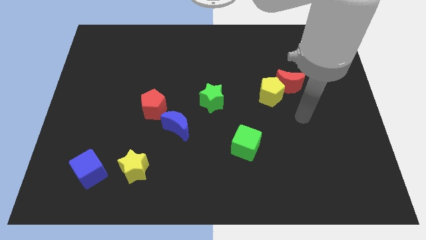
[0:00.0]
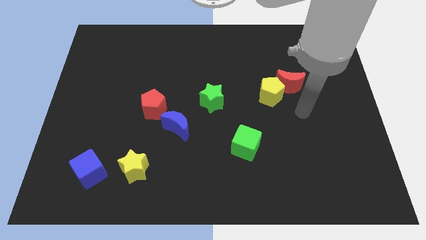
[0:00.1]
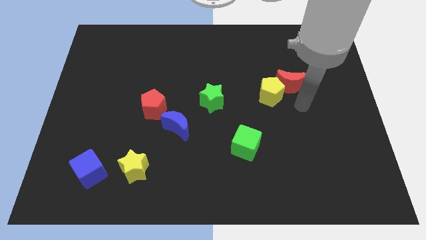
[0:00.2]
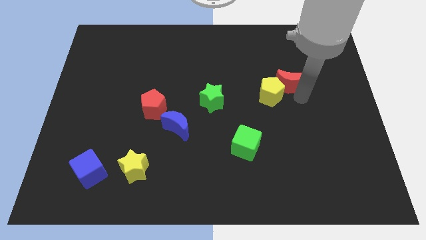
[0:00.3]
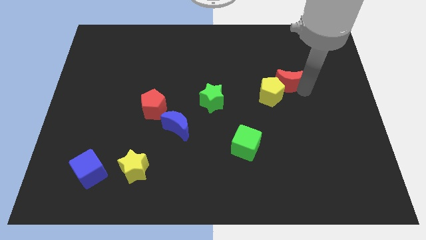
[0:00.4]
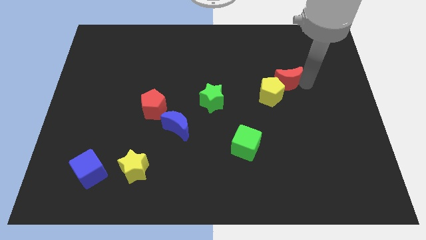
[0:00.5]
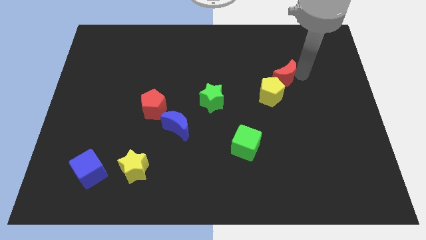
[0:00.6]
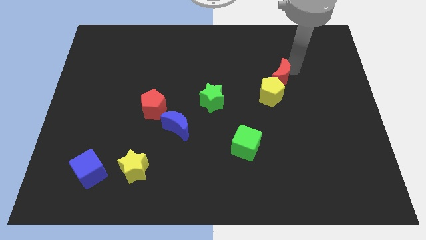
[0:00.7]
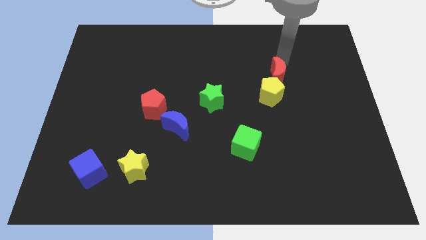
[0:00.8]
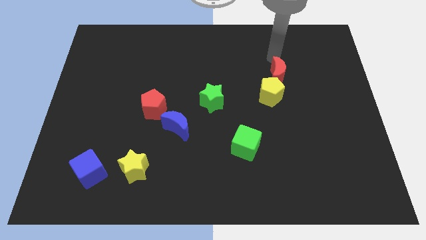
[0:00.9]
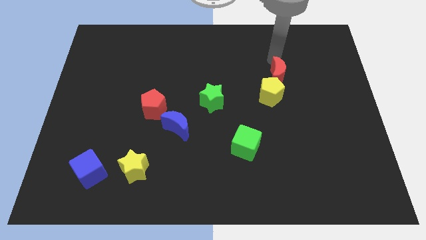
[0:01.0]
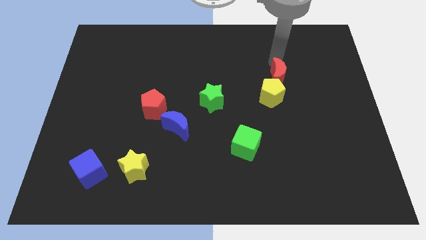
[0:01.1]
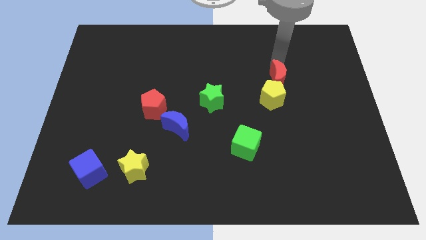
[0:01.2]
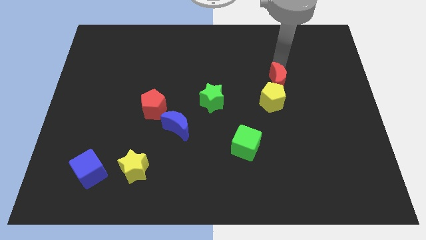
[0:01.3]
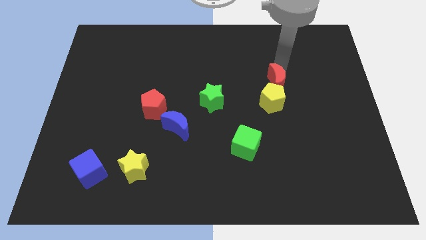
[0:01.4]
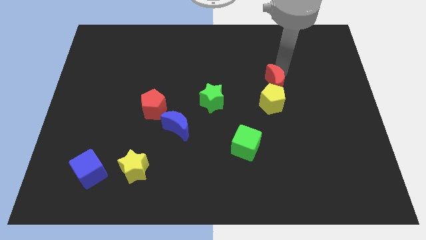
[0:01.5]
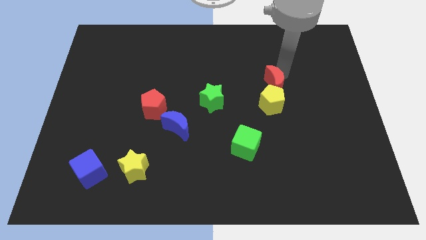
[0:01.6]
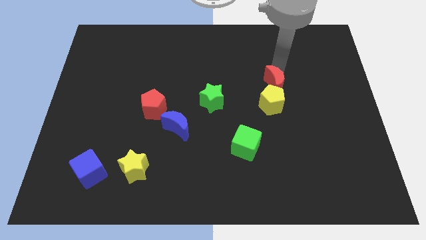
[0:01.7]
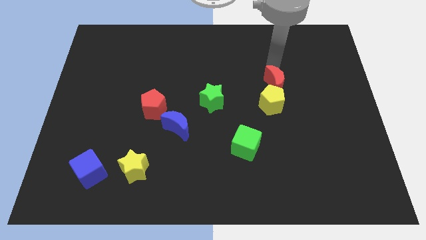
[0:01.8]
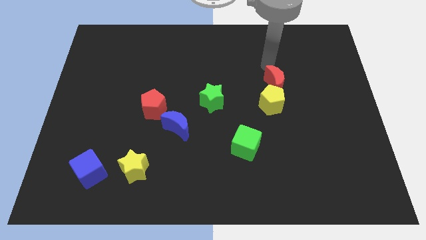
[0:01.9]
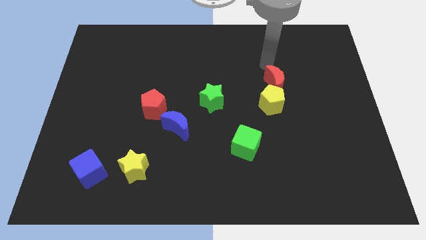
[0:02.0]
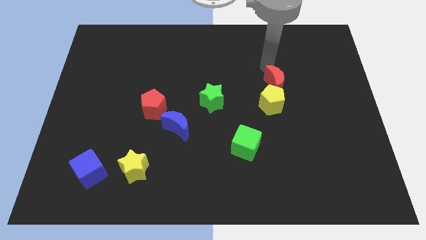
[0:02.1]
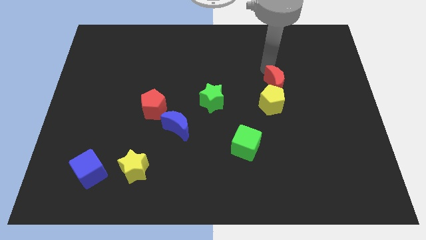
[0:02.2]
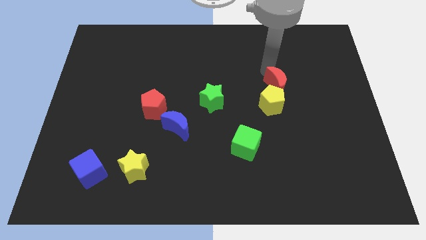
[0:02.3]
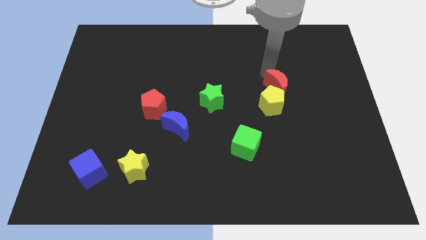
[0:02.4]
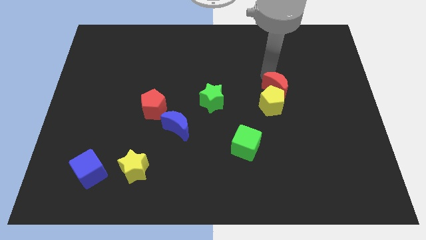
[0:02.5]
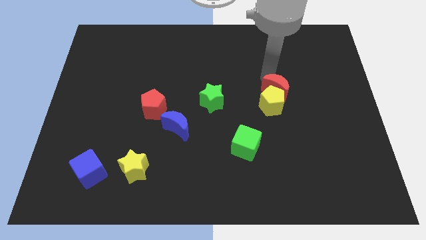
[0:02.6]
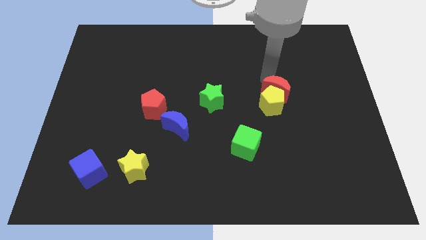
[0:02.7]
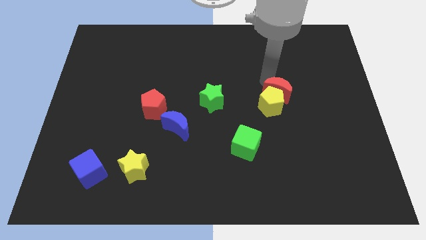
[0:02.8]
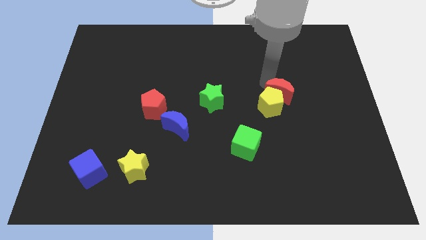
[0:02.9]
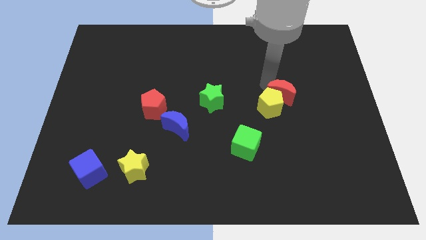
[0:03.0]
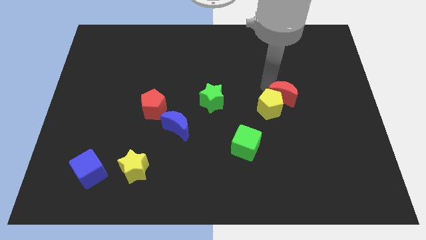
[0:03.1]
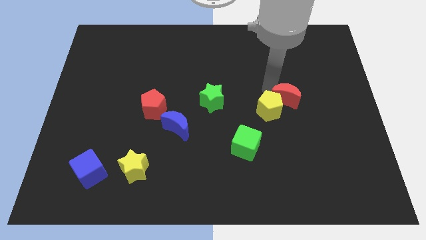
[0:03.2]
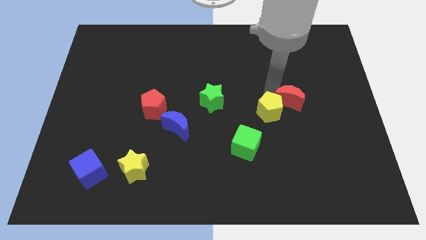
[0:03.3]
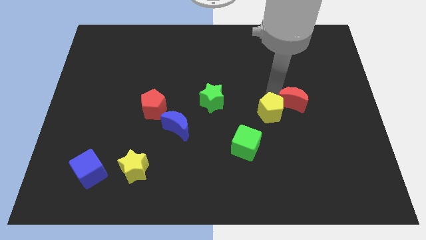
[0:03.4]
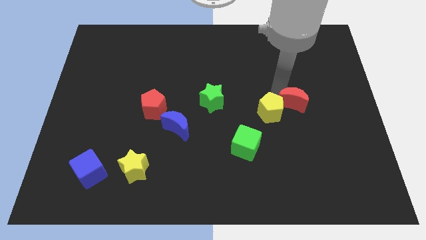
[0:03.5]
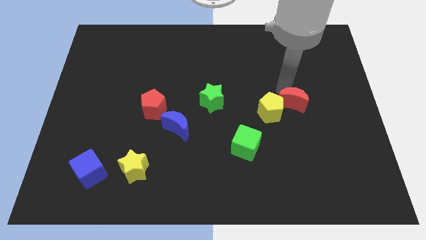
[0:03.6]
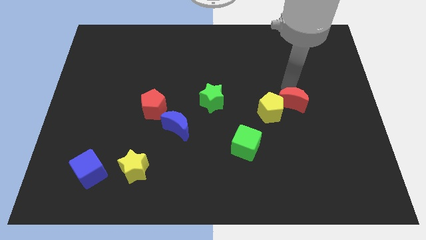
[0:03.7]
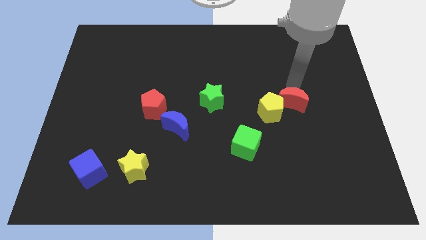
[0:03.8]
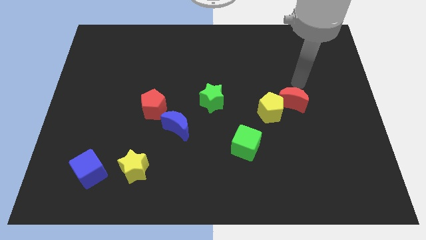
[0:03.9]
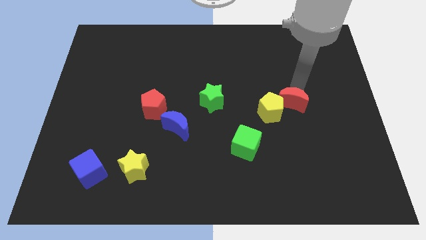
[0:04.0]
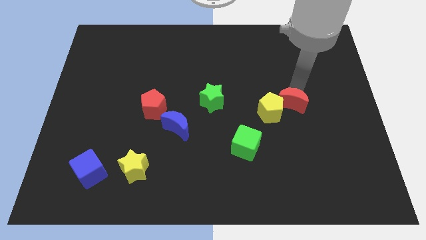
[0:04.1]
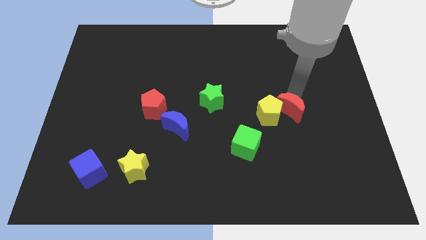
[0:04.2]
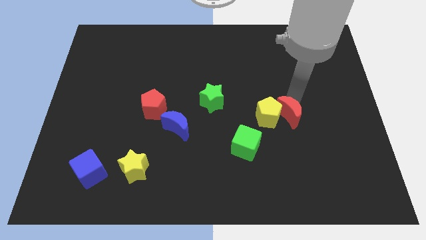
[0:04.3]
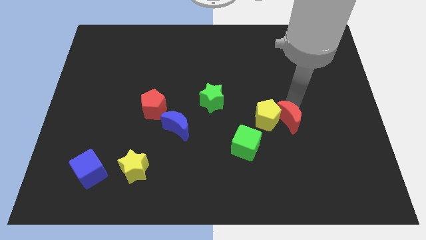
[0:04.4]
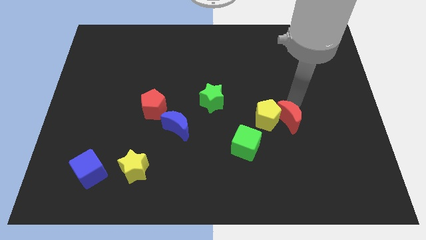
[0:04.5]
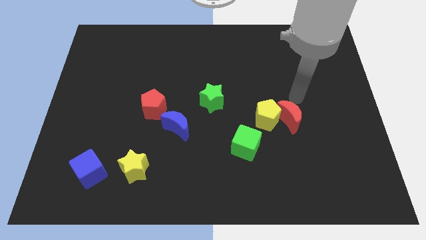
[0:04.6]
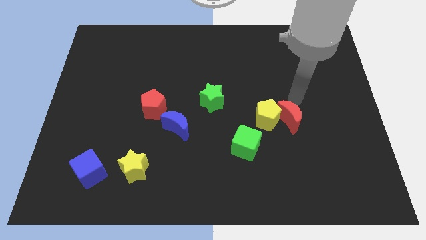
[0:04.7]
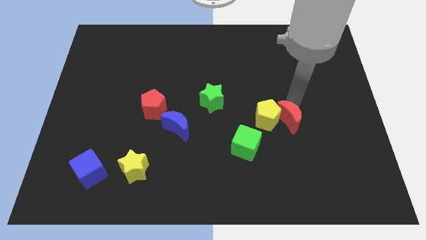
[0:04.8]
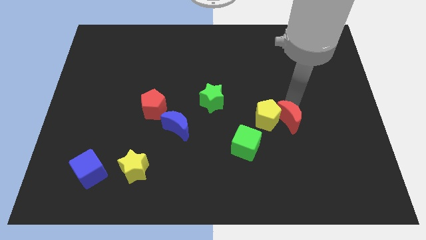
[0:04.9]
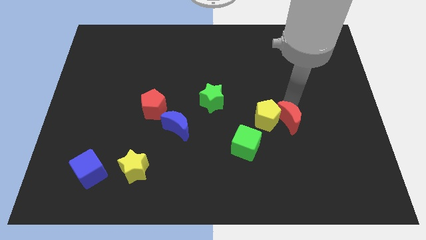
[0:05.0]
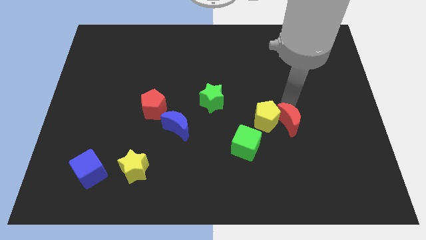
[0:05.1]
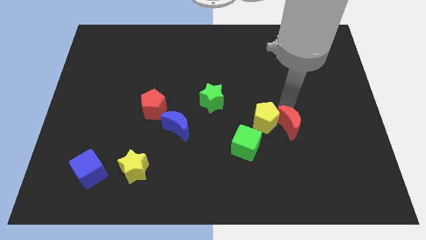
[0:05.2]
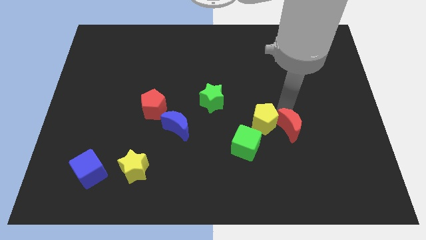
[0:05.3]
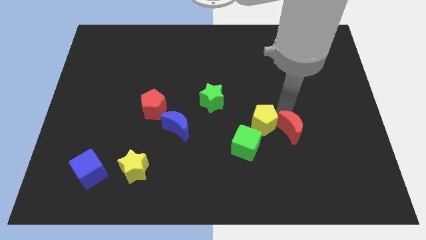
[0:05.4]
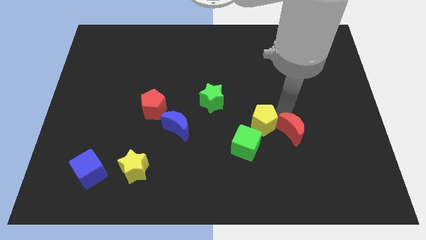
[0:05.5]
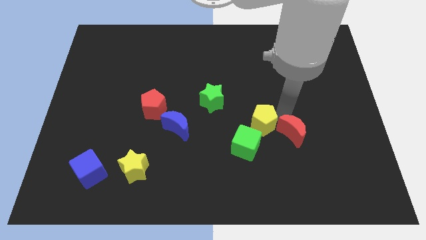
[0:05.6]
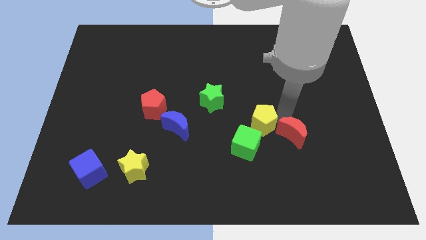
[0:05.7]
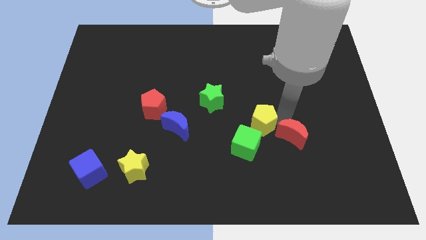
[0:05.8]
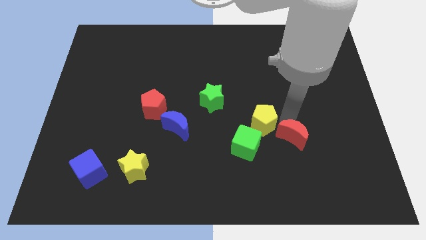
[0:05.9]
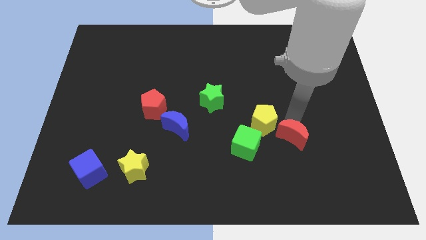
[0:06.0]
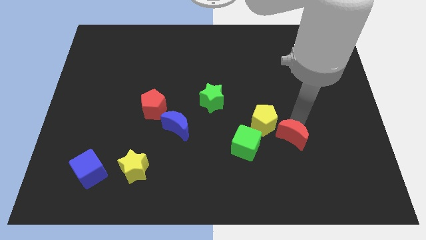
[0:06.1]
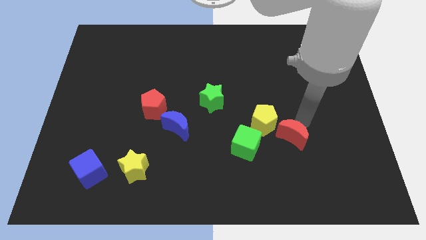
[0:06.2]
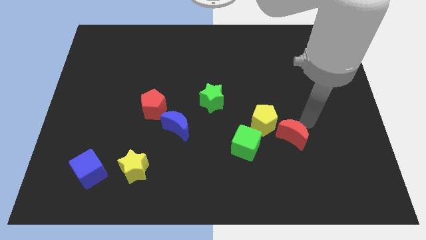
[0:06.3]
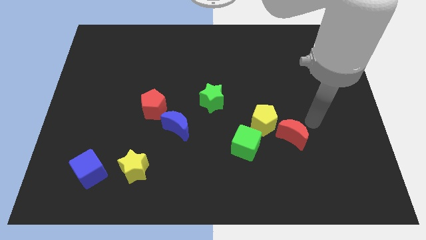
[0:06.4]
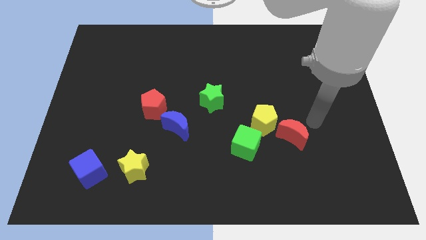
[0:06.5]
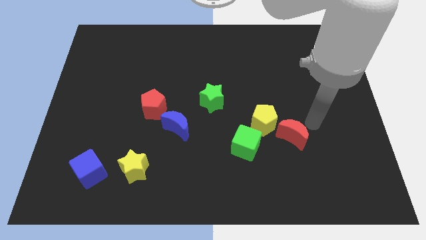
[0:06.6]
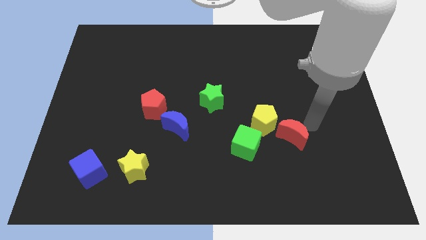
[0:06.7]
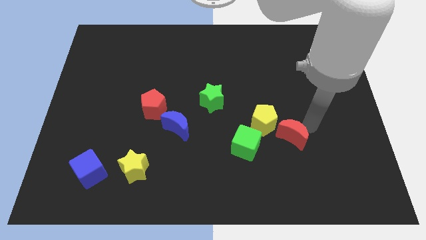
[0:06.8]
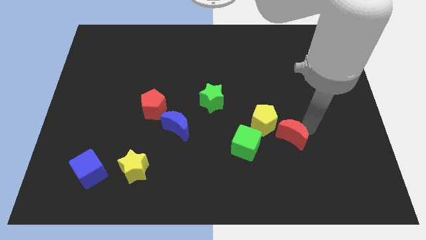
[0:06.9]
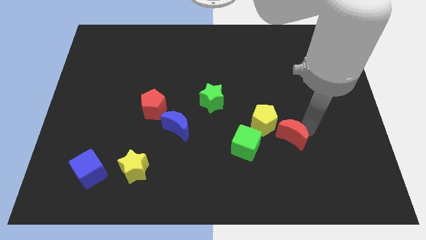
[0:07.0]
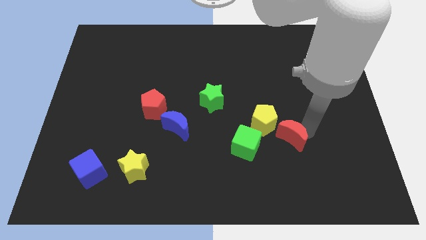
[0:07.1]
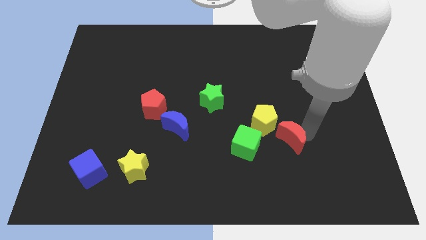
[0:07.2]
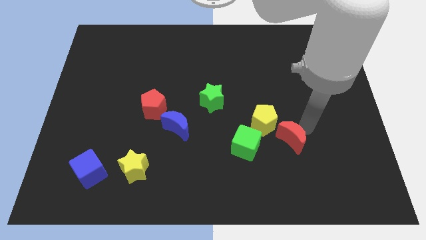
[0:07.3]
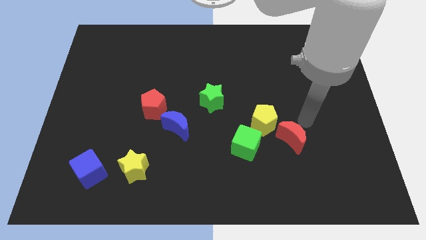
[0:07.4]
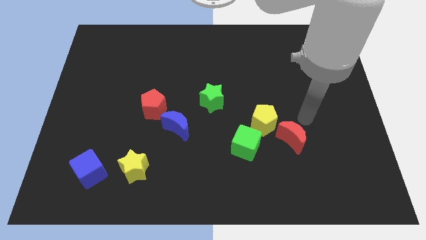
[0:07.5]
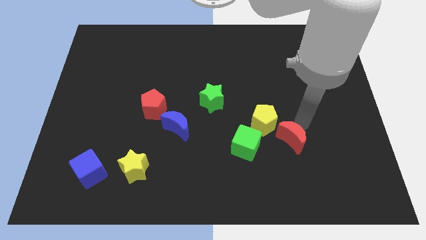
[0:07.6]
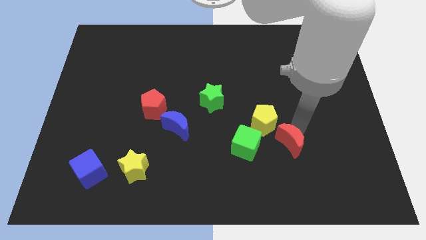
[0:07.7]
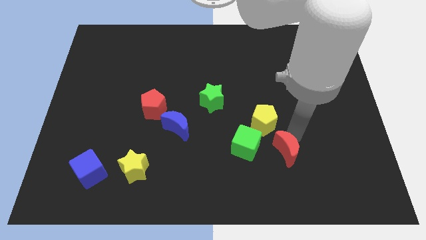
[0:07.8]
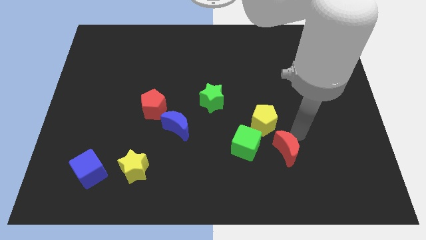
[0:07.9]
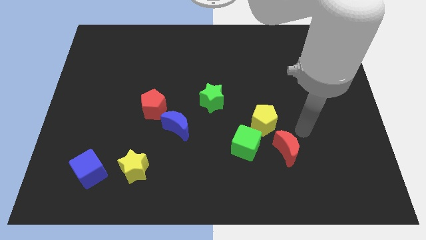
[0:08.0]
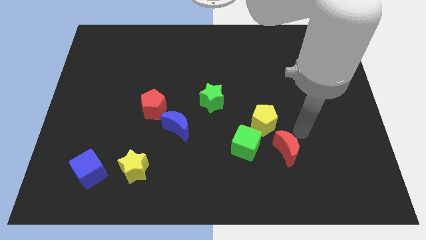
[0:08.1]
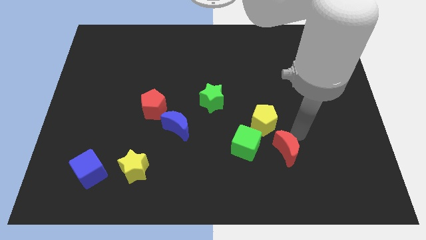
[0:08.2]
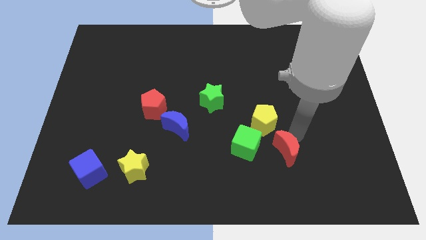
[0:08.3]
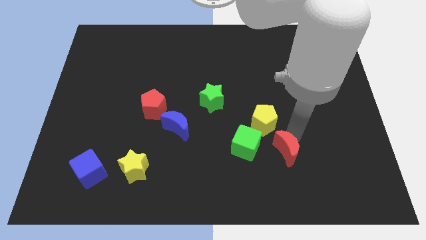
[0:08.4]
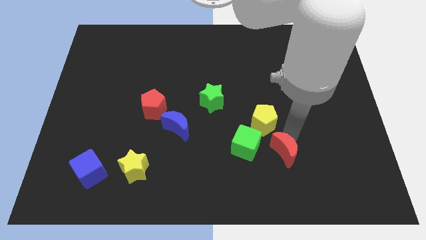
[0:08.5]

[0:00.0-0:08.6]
slide the red moon diagonally down and to the right of the green cube
